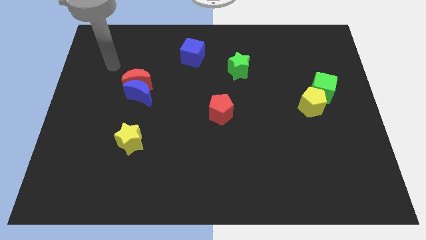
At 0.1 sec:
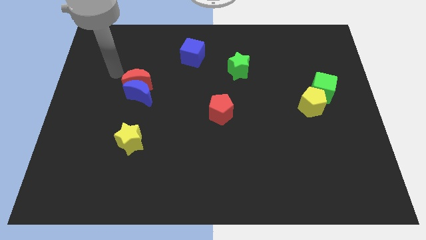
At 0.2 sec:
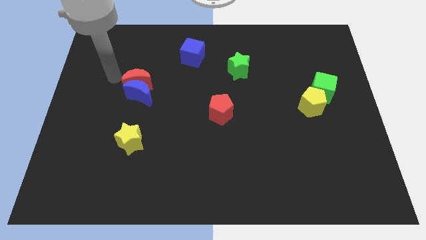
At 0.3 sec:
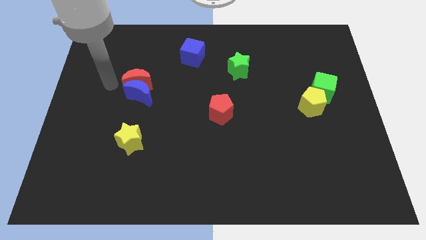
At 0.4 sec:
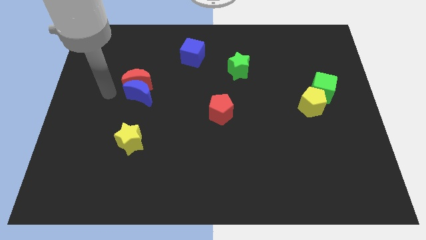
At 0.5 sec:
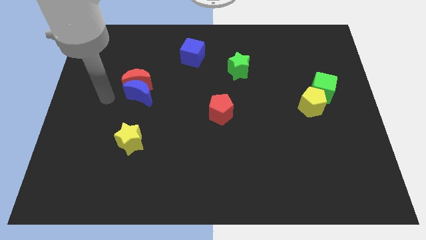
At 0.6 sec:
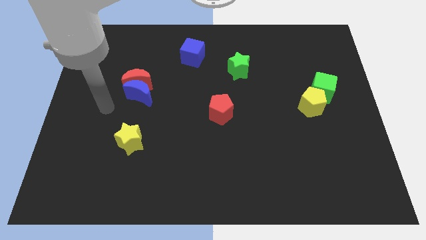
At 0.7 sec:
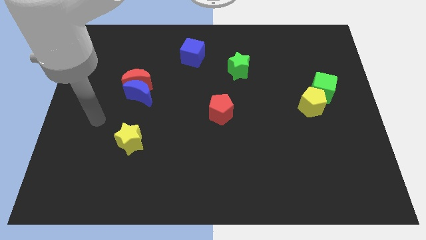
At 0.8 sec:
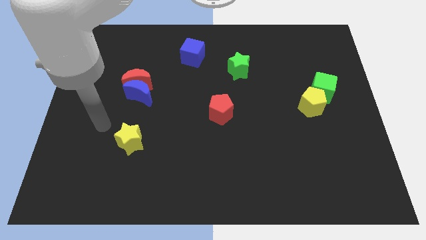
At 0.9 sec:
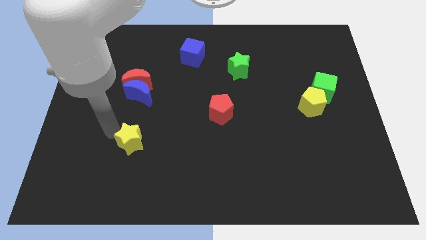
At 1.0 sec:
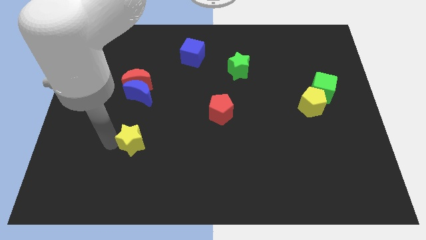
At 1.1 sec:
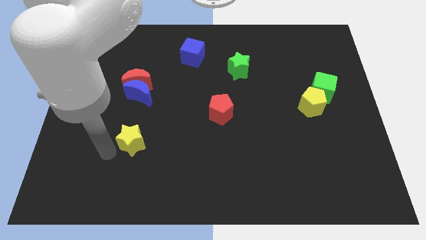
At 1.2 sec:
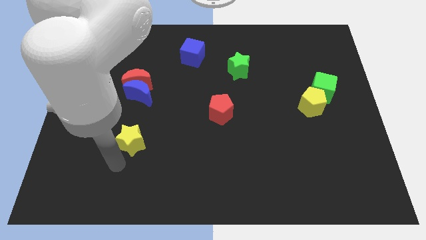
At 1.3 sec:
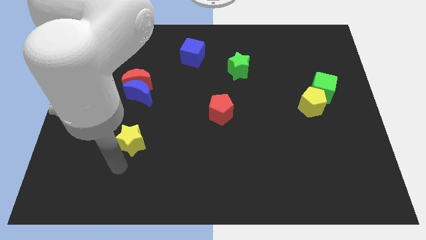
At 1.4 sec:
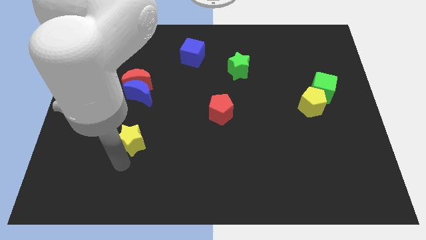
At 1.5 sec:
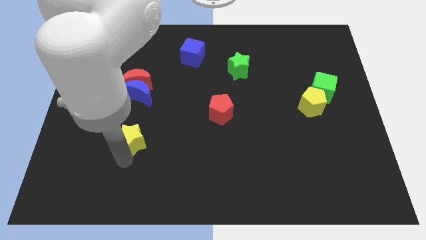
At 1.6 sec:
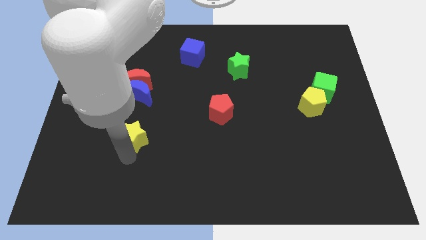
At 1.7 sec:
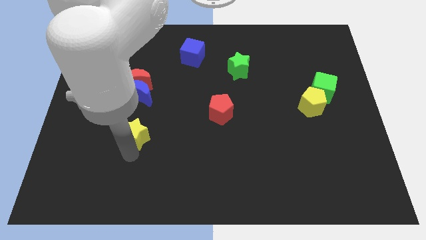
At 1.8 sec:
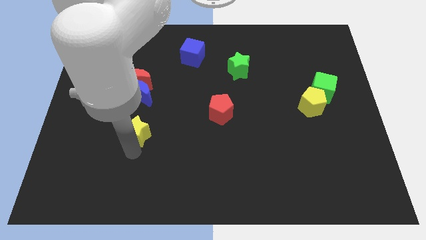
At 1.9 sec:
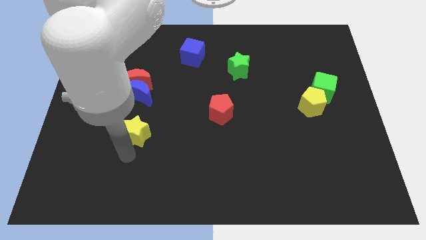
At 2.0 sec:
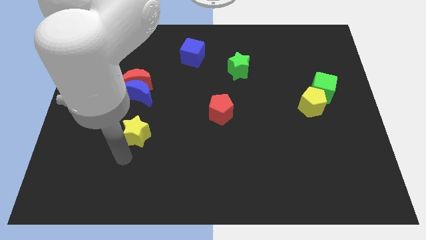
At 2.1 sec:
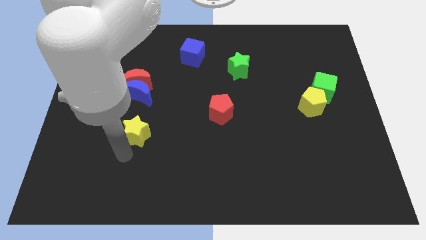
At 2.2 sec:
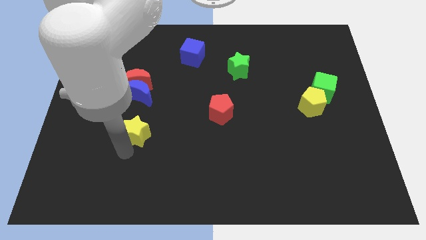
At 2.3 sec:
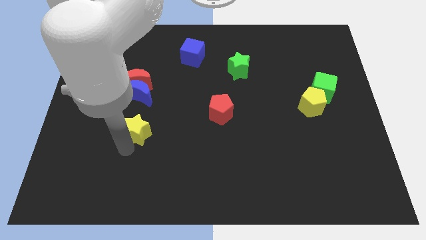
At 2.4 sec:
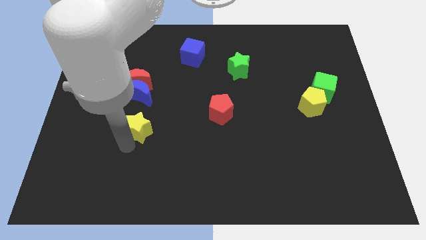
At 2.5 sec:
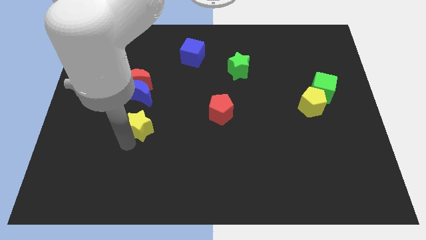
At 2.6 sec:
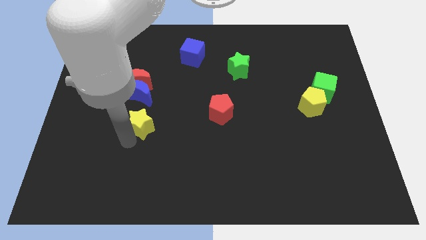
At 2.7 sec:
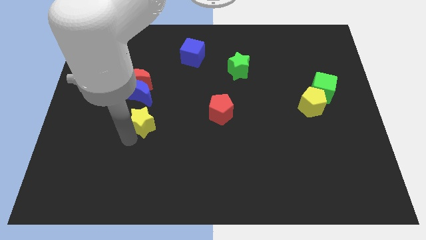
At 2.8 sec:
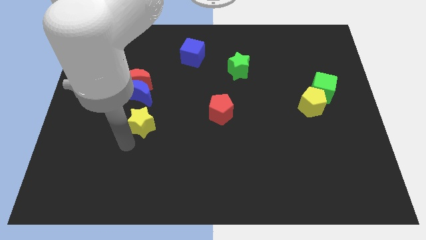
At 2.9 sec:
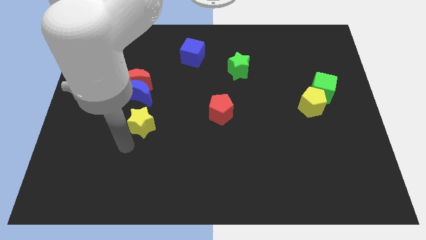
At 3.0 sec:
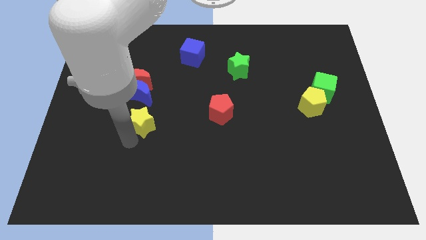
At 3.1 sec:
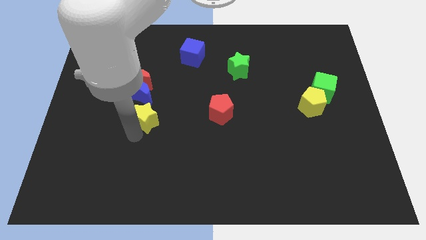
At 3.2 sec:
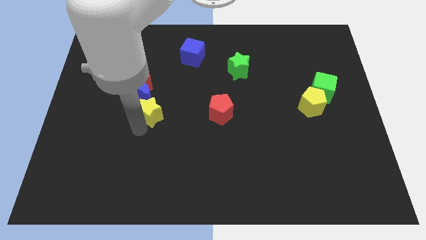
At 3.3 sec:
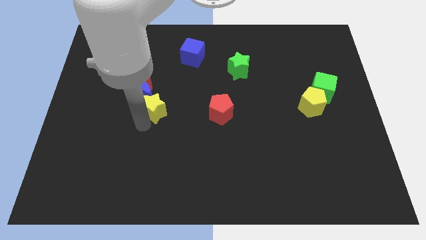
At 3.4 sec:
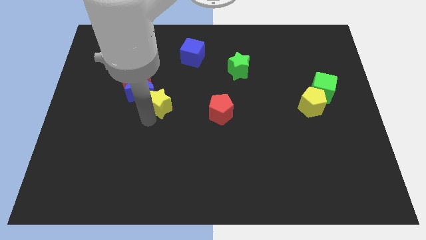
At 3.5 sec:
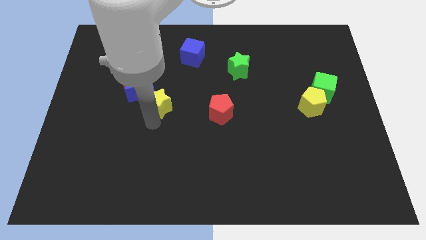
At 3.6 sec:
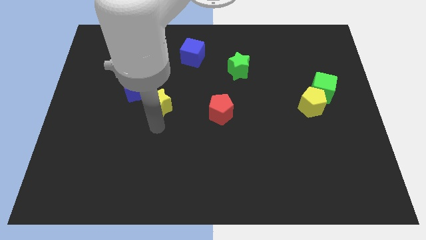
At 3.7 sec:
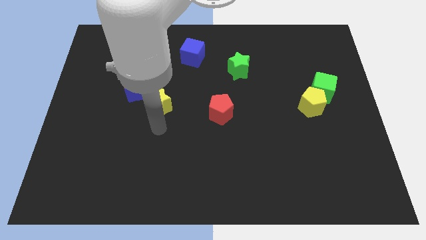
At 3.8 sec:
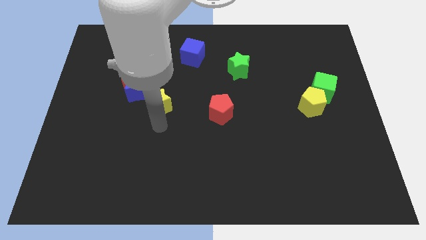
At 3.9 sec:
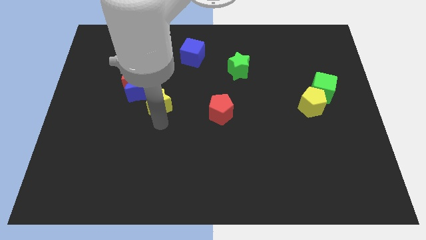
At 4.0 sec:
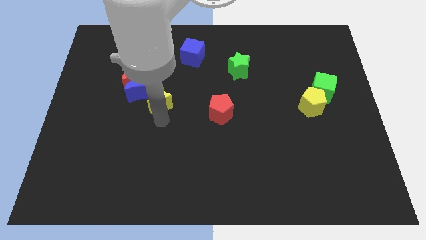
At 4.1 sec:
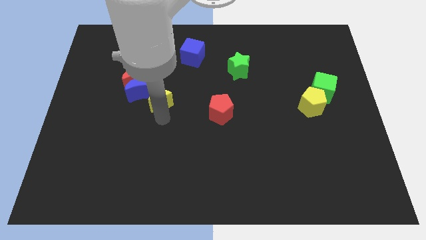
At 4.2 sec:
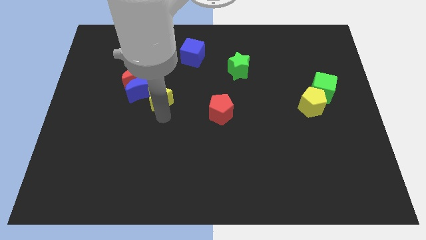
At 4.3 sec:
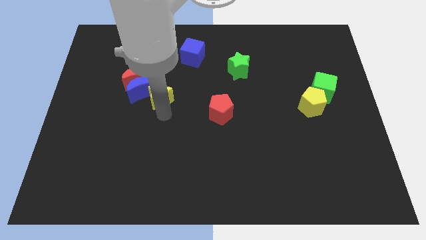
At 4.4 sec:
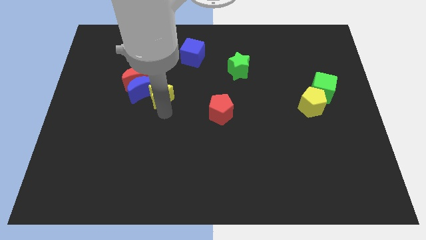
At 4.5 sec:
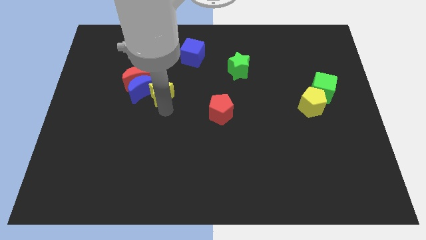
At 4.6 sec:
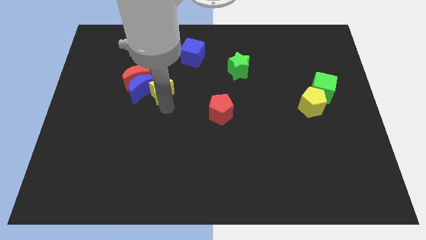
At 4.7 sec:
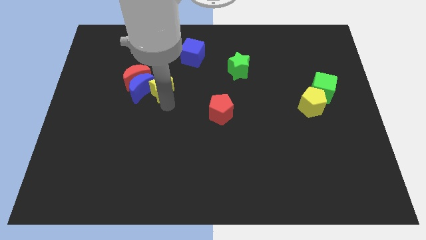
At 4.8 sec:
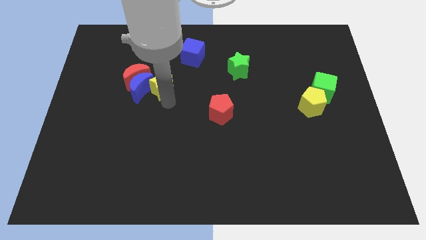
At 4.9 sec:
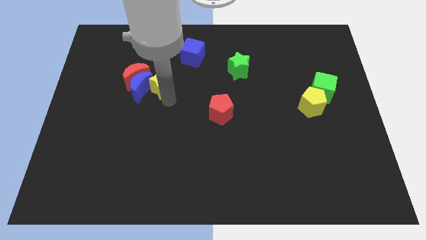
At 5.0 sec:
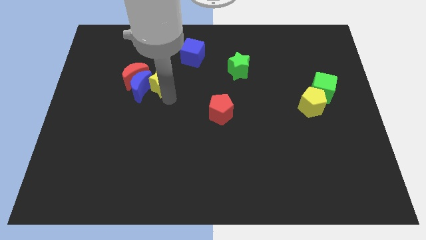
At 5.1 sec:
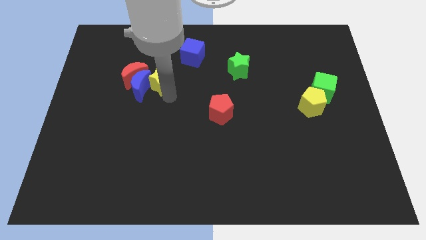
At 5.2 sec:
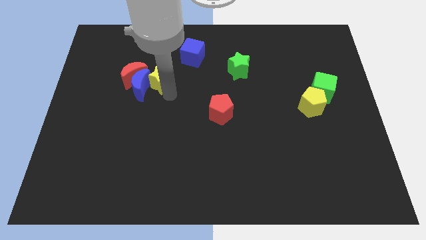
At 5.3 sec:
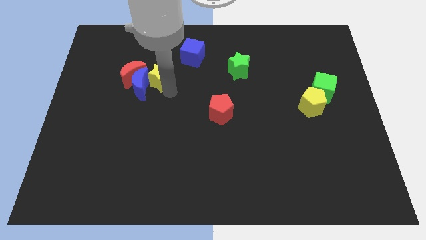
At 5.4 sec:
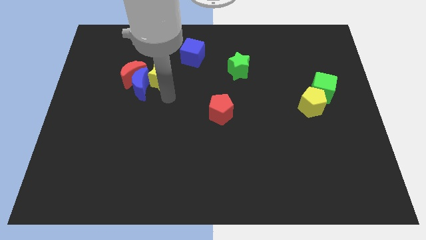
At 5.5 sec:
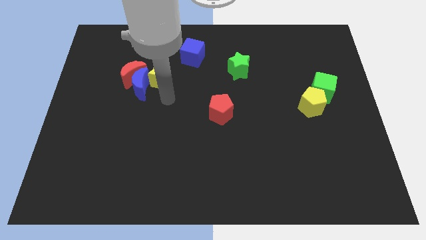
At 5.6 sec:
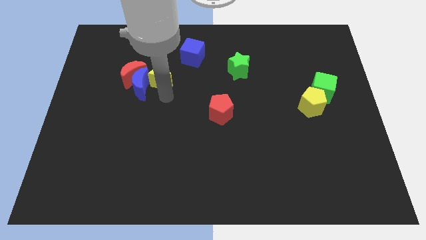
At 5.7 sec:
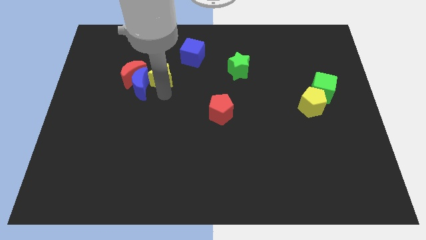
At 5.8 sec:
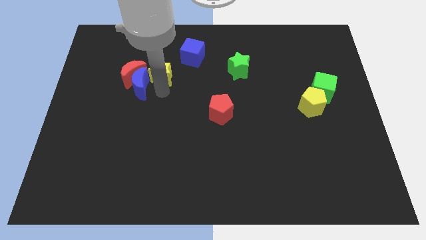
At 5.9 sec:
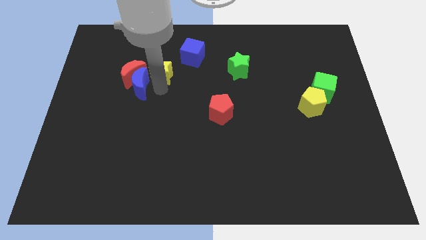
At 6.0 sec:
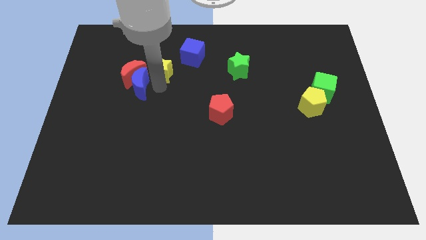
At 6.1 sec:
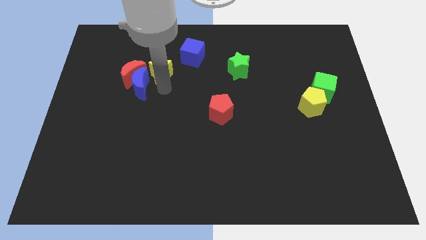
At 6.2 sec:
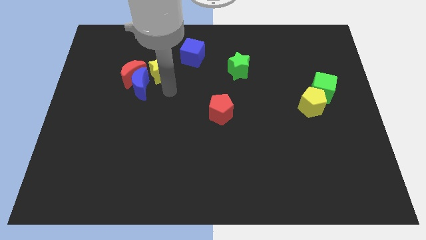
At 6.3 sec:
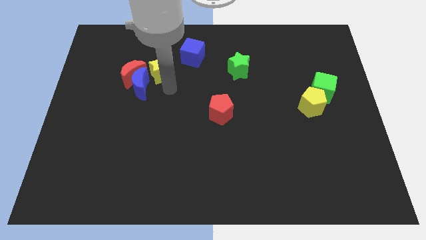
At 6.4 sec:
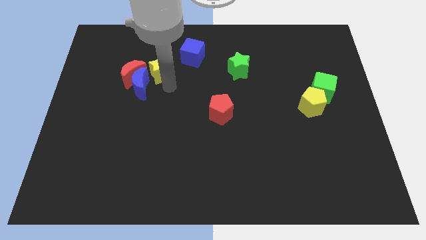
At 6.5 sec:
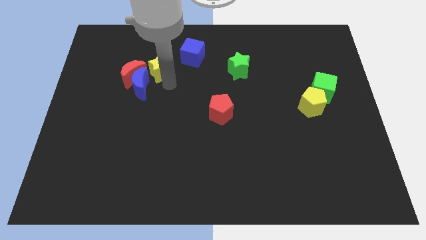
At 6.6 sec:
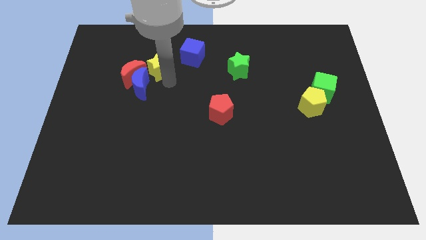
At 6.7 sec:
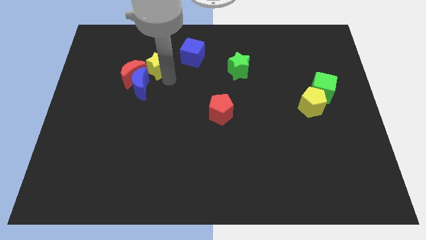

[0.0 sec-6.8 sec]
move the yellow star just left of the blue cube
